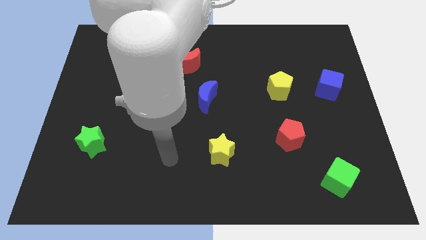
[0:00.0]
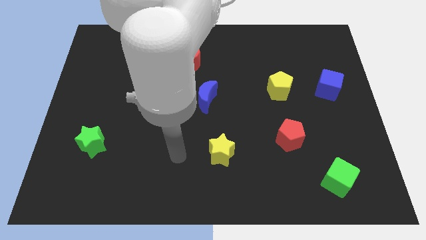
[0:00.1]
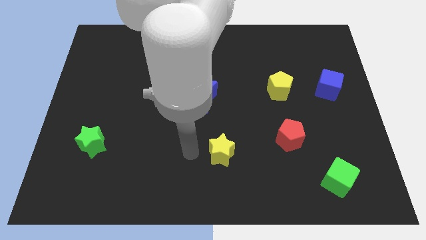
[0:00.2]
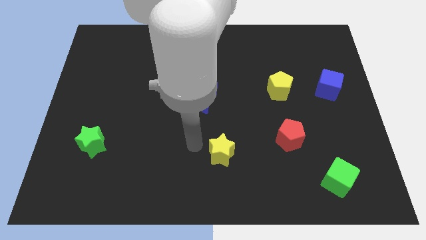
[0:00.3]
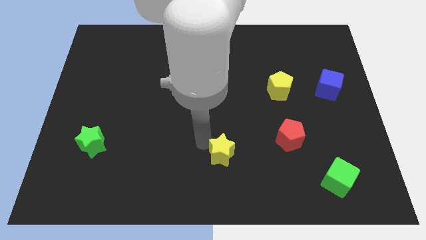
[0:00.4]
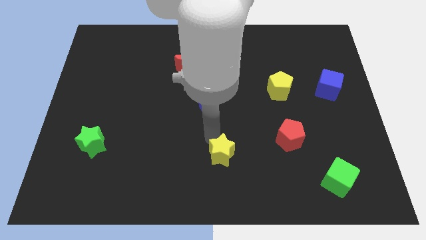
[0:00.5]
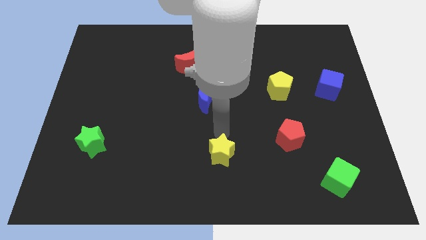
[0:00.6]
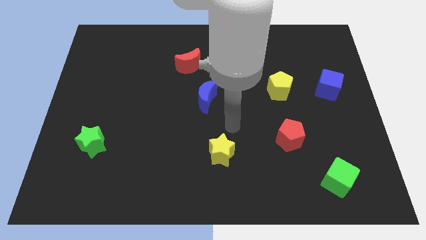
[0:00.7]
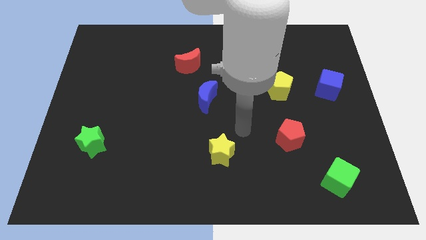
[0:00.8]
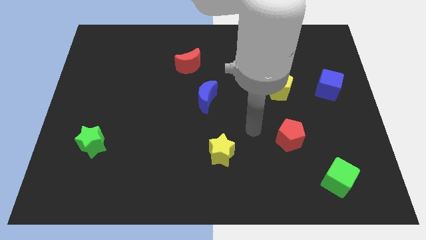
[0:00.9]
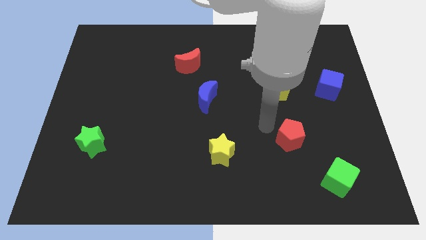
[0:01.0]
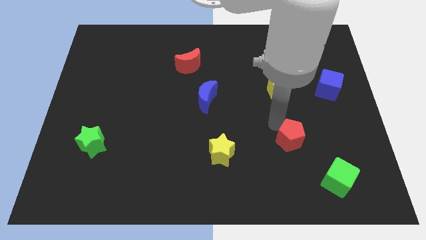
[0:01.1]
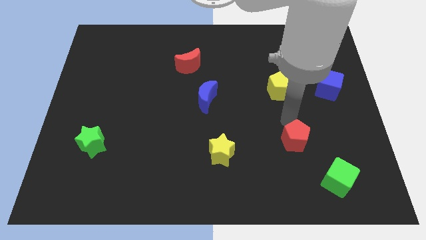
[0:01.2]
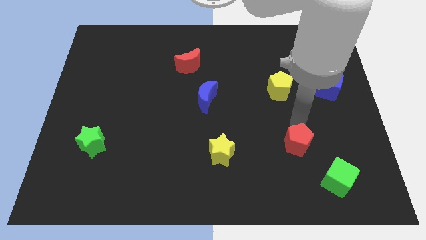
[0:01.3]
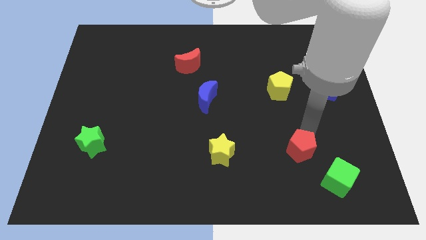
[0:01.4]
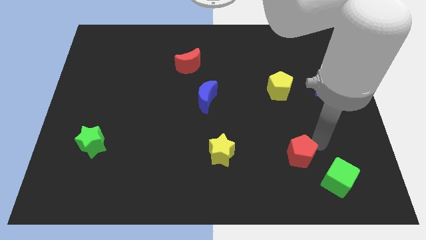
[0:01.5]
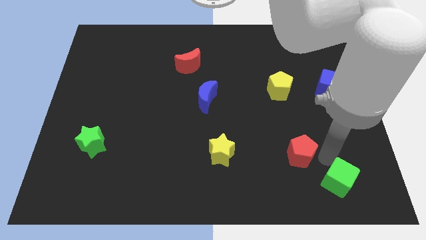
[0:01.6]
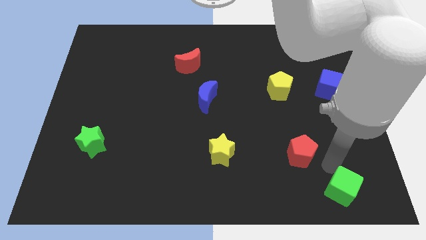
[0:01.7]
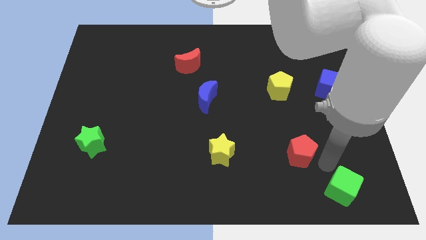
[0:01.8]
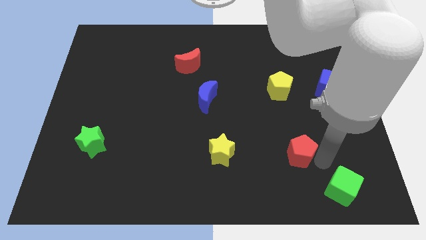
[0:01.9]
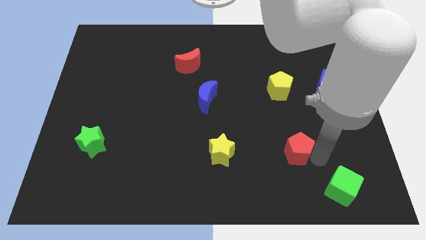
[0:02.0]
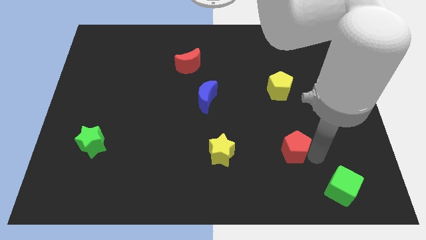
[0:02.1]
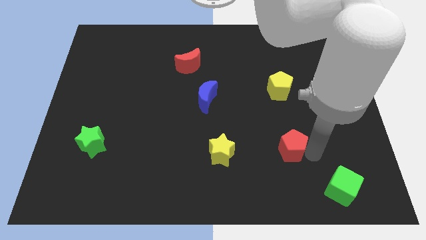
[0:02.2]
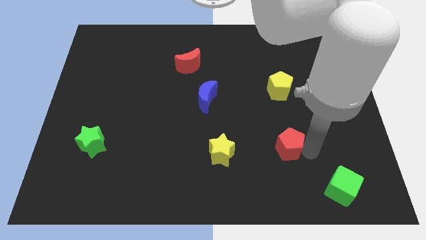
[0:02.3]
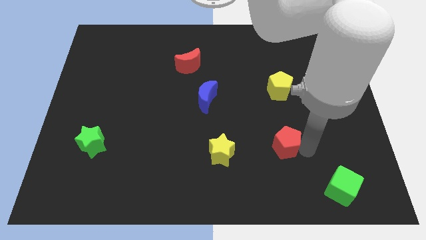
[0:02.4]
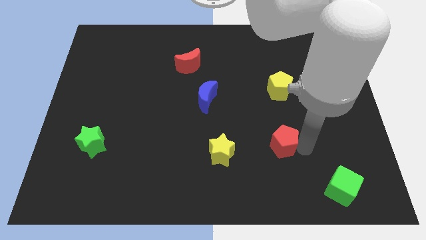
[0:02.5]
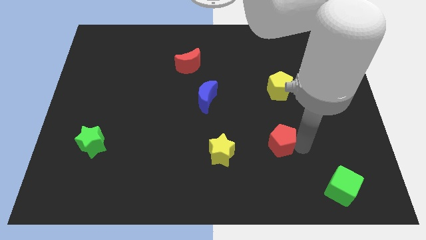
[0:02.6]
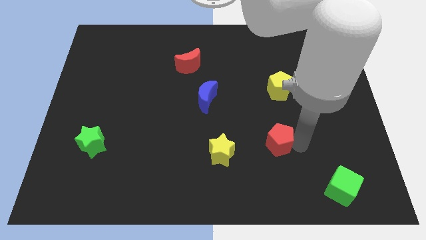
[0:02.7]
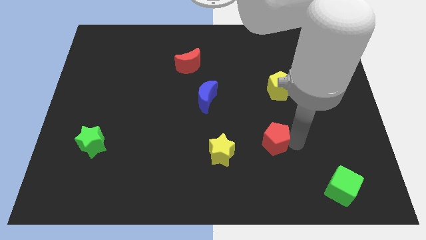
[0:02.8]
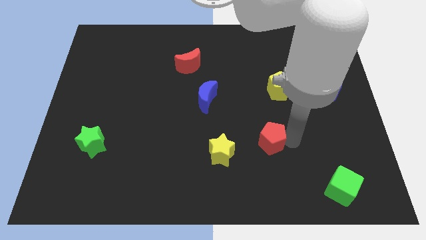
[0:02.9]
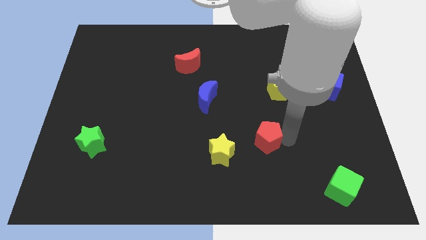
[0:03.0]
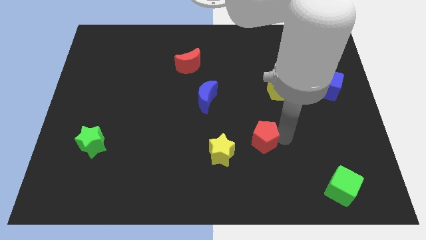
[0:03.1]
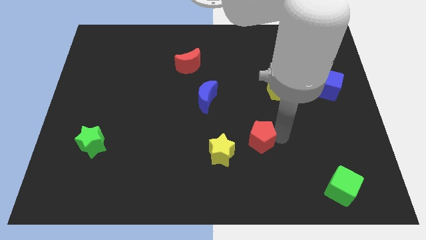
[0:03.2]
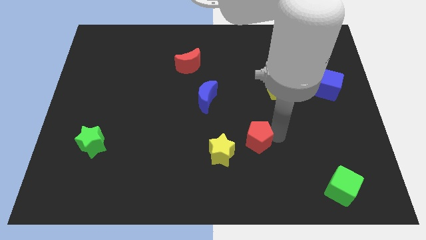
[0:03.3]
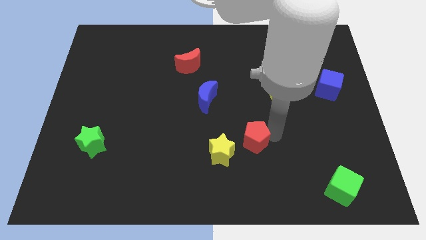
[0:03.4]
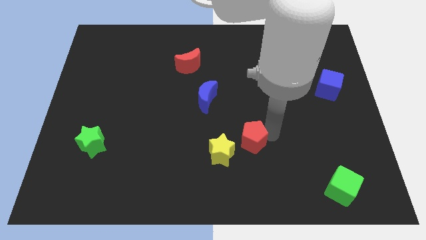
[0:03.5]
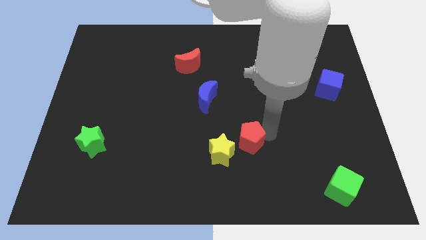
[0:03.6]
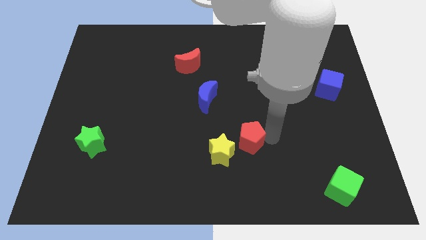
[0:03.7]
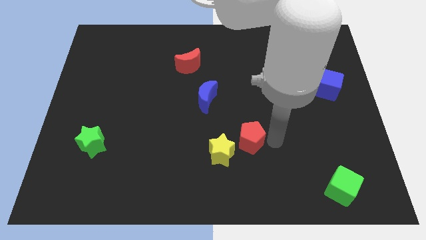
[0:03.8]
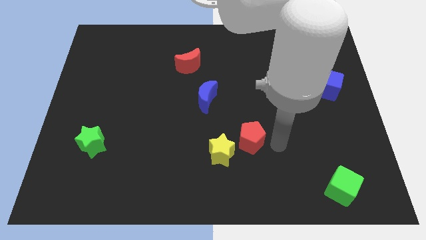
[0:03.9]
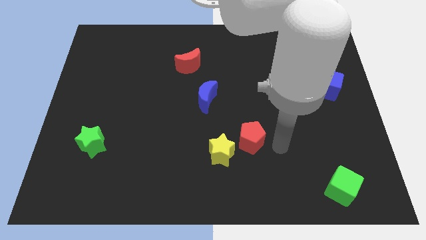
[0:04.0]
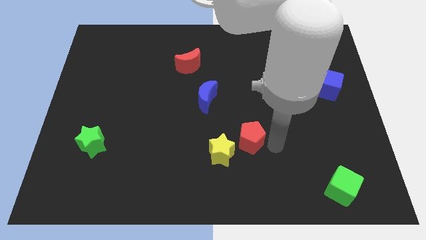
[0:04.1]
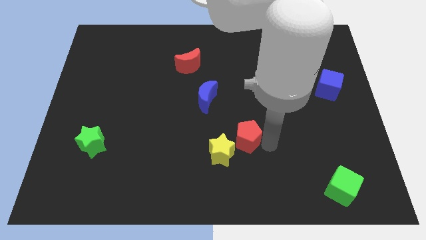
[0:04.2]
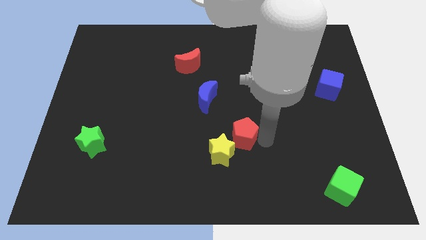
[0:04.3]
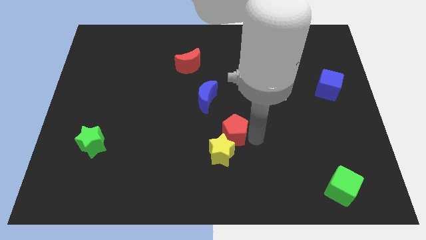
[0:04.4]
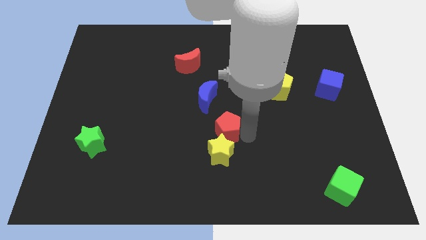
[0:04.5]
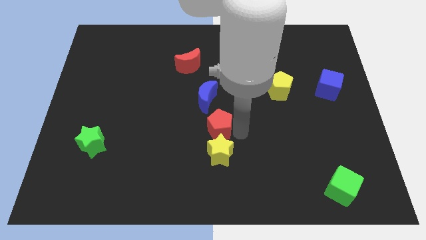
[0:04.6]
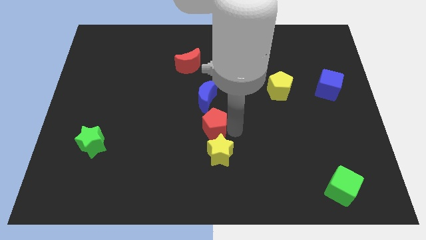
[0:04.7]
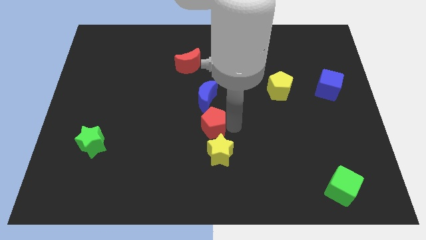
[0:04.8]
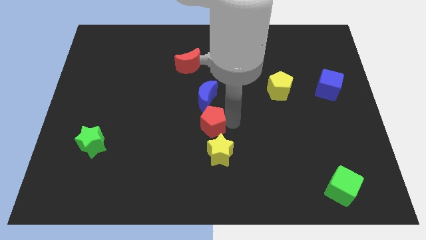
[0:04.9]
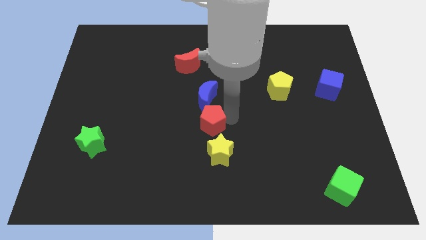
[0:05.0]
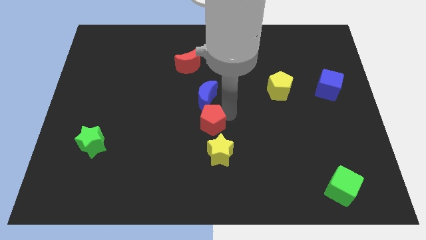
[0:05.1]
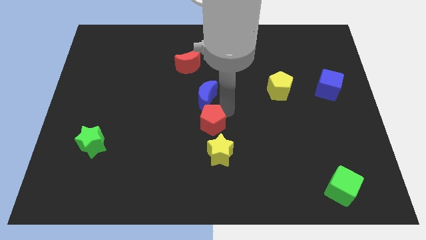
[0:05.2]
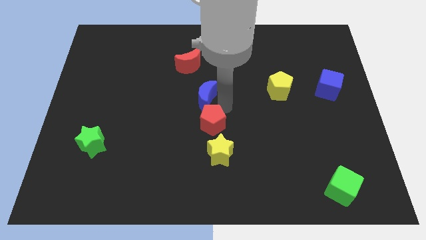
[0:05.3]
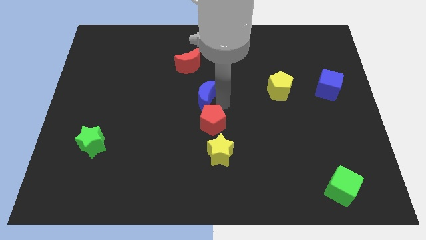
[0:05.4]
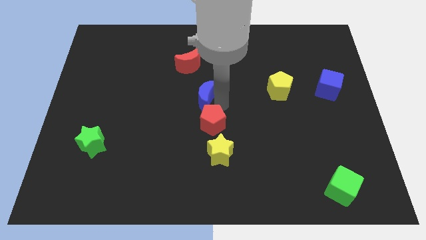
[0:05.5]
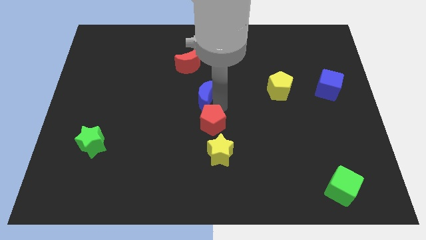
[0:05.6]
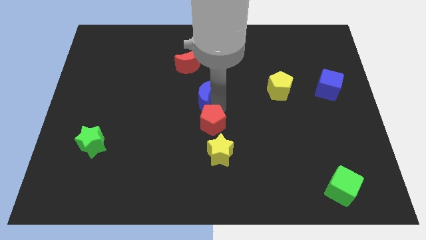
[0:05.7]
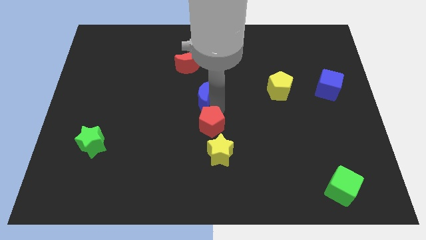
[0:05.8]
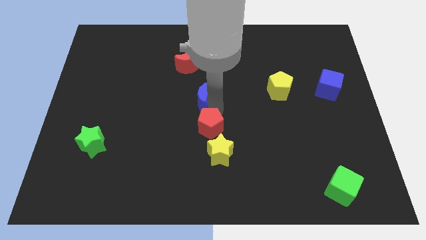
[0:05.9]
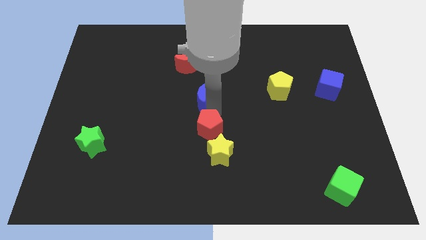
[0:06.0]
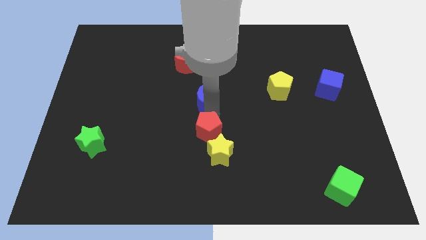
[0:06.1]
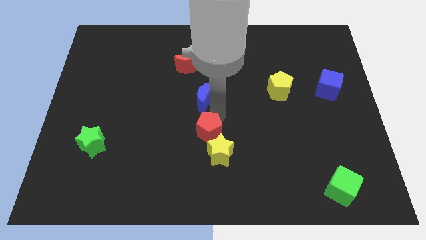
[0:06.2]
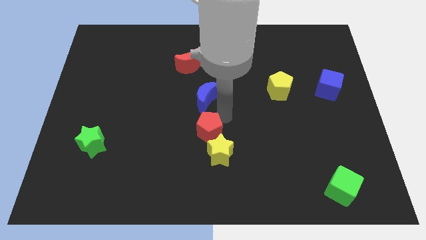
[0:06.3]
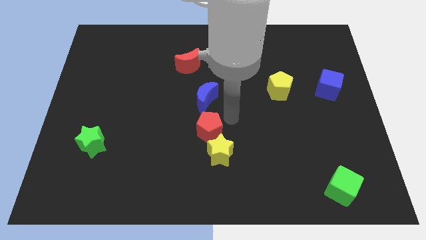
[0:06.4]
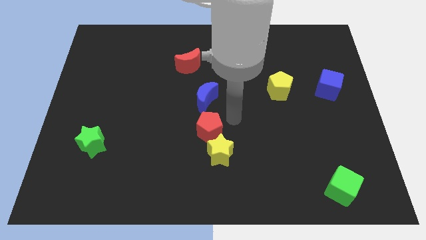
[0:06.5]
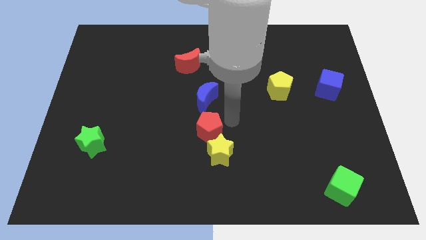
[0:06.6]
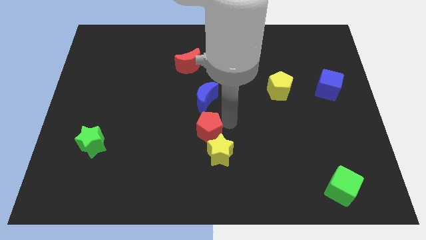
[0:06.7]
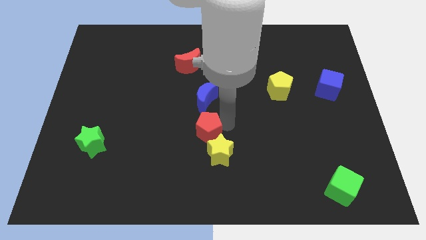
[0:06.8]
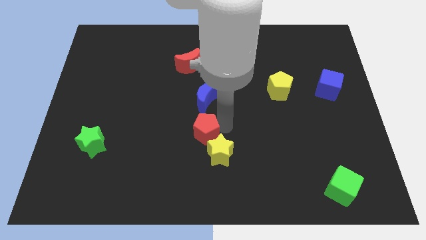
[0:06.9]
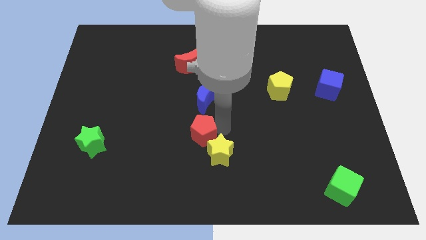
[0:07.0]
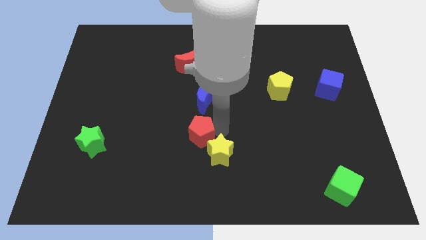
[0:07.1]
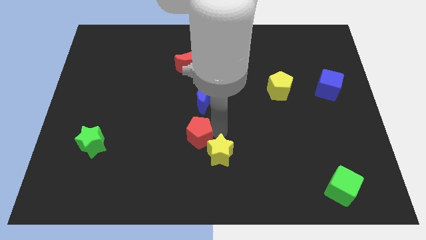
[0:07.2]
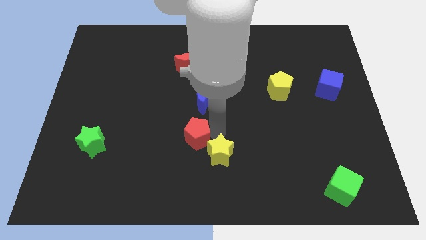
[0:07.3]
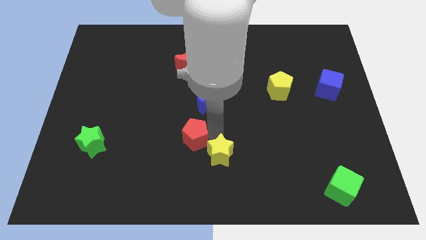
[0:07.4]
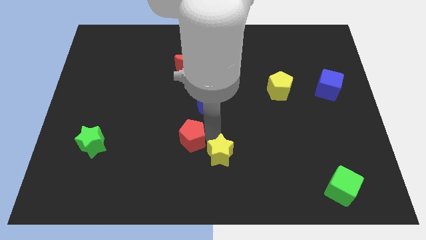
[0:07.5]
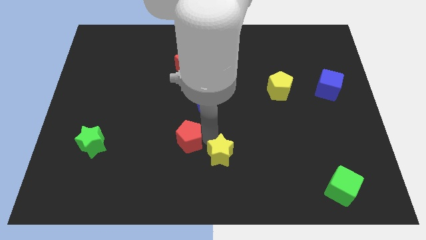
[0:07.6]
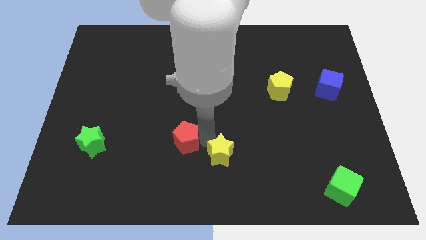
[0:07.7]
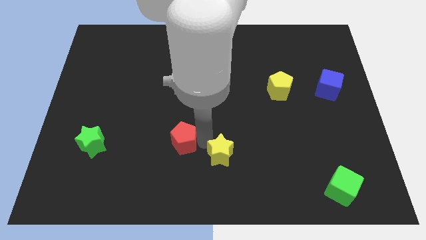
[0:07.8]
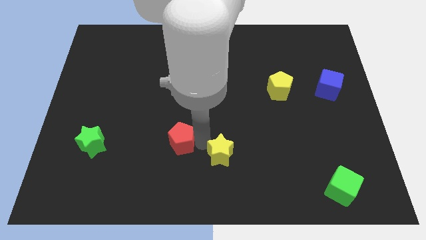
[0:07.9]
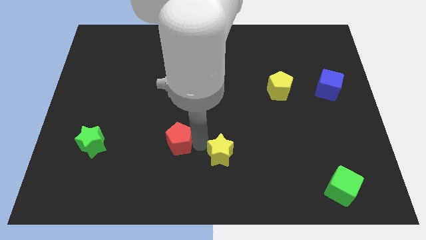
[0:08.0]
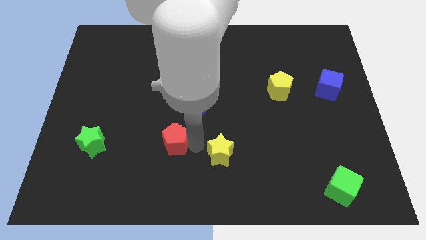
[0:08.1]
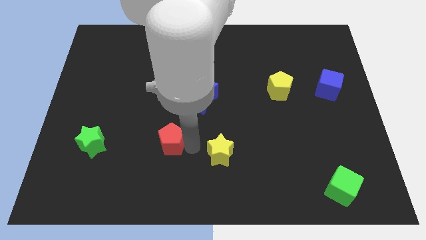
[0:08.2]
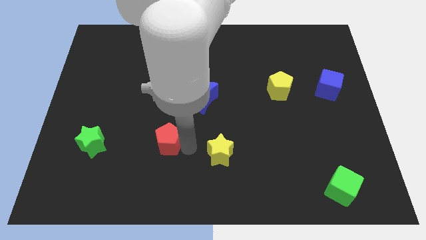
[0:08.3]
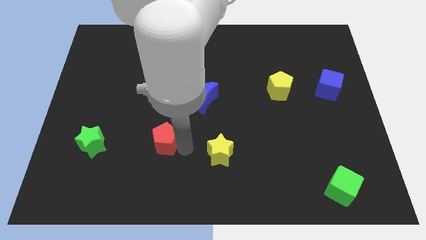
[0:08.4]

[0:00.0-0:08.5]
move the red pentagon just right of the green star
